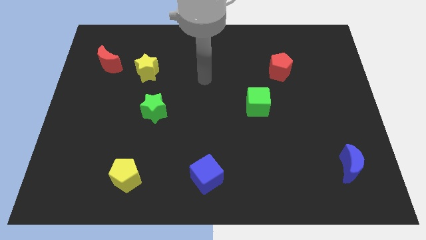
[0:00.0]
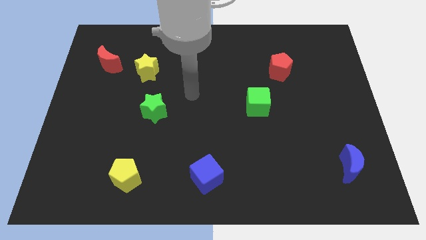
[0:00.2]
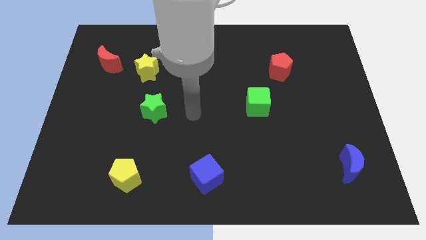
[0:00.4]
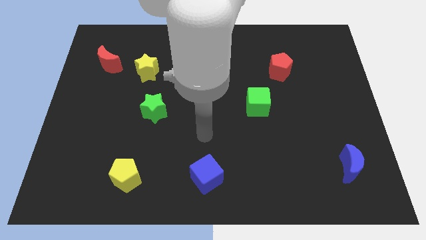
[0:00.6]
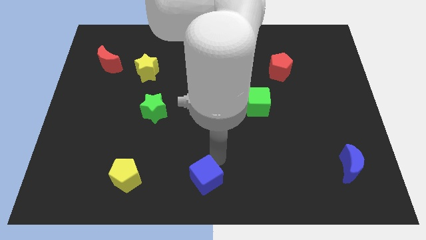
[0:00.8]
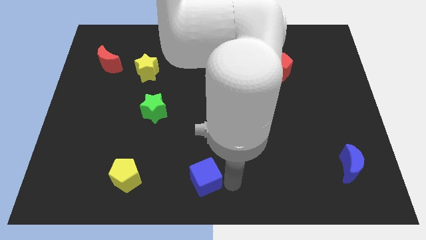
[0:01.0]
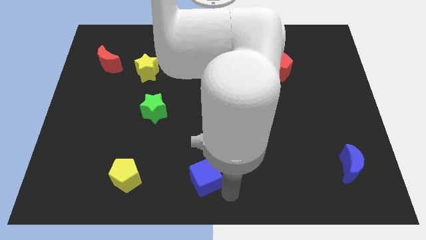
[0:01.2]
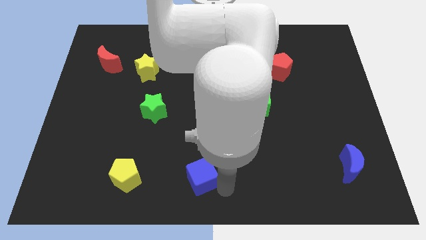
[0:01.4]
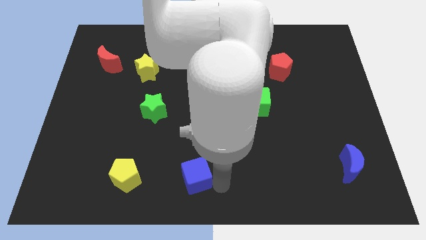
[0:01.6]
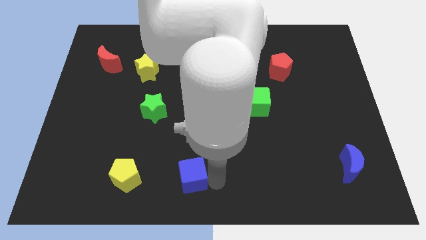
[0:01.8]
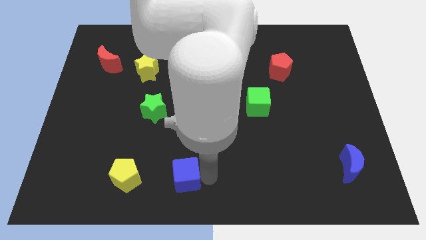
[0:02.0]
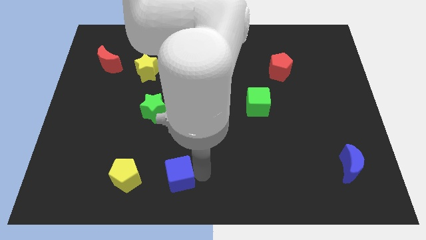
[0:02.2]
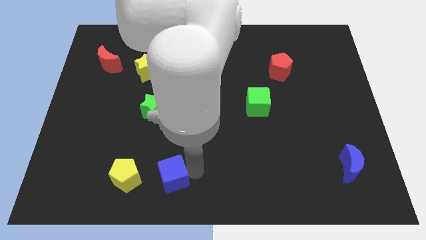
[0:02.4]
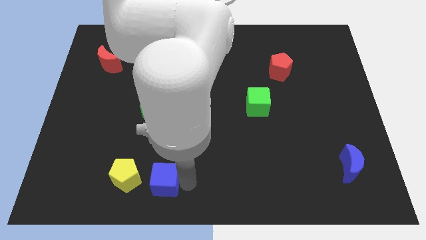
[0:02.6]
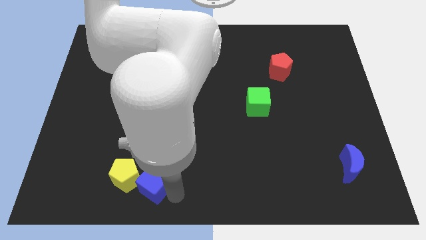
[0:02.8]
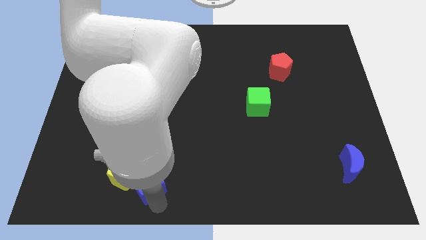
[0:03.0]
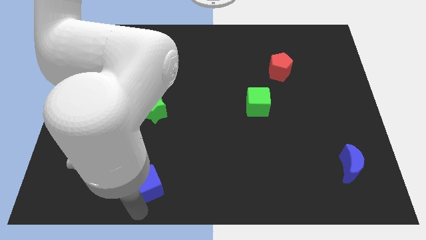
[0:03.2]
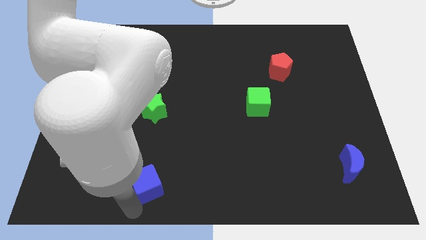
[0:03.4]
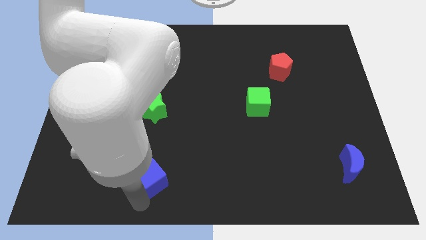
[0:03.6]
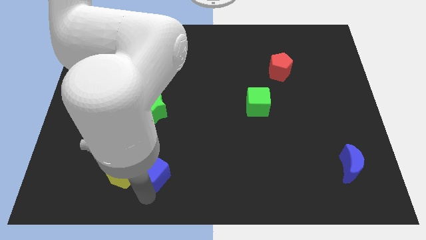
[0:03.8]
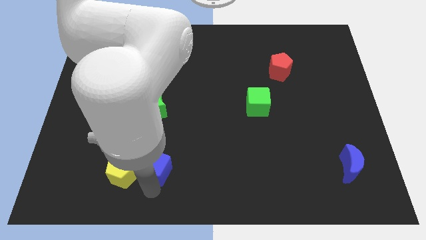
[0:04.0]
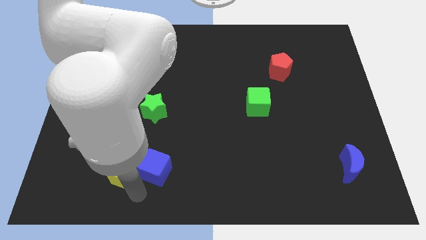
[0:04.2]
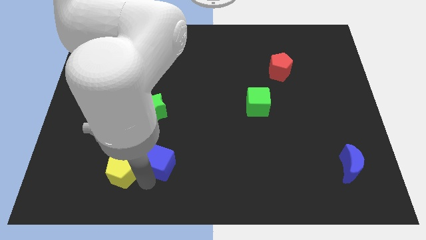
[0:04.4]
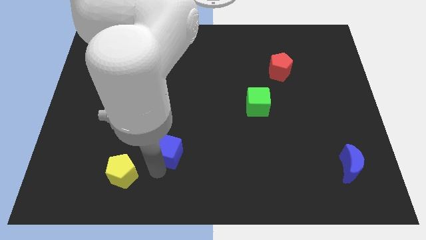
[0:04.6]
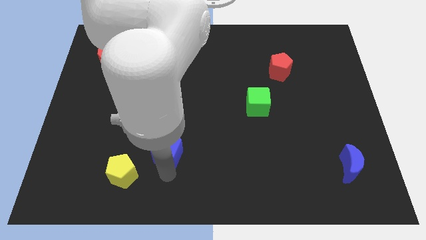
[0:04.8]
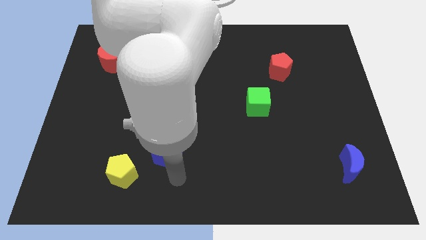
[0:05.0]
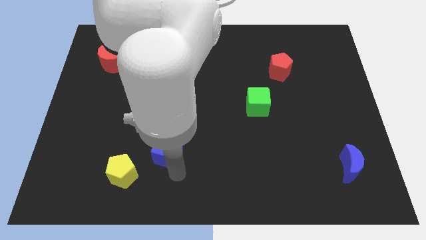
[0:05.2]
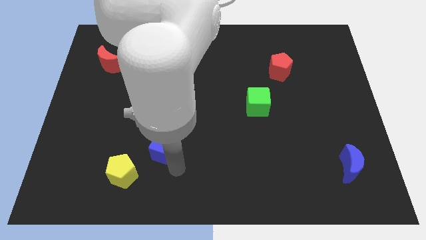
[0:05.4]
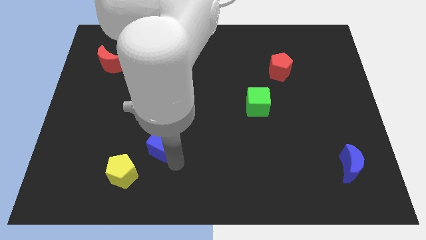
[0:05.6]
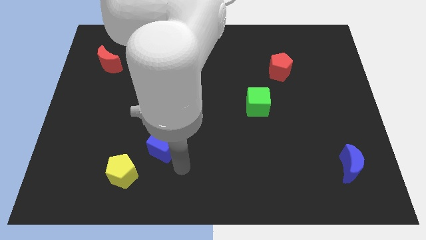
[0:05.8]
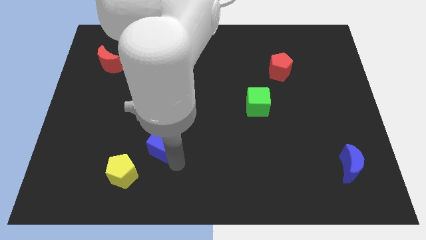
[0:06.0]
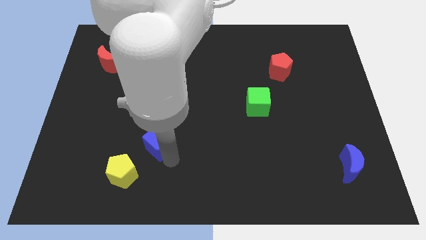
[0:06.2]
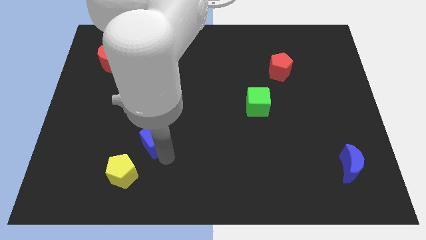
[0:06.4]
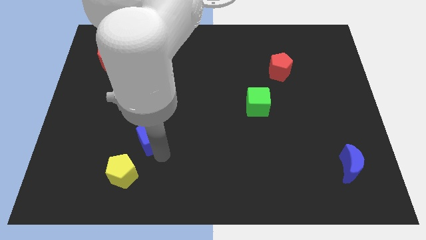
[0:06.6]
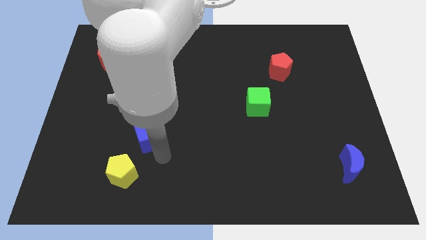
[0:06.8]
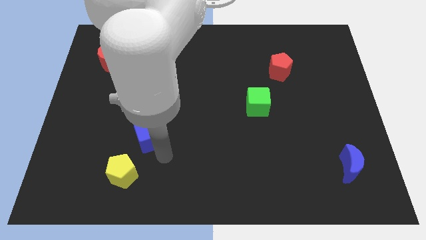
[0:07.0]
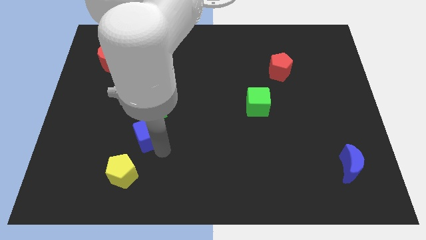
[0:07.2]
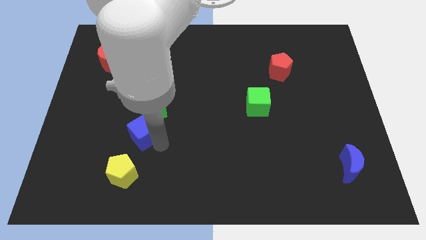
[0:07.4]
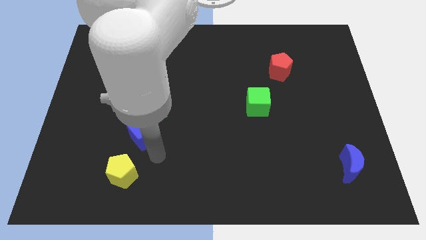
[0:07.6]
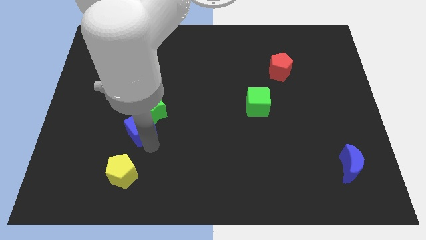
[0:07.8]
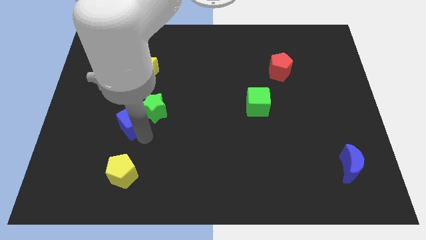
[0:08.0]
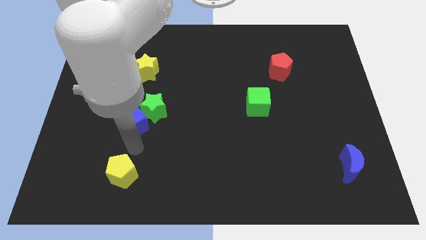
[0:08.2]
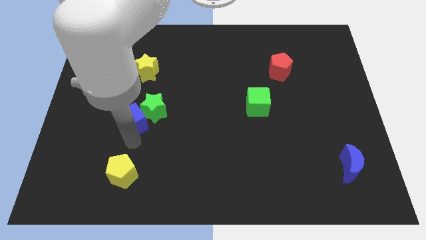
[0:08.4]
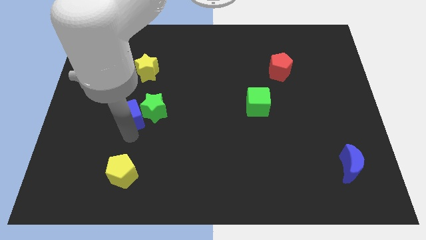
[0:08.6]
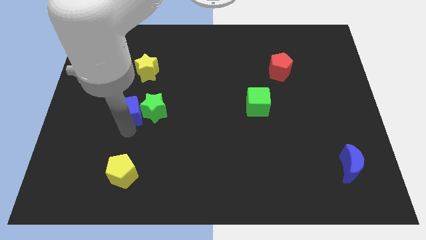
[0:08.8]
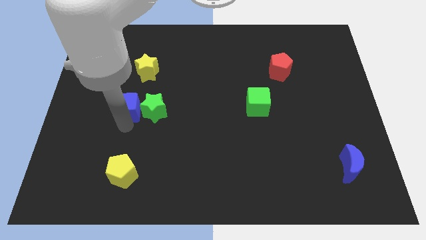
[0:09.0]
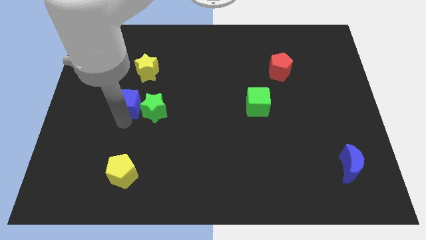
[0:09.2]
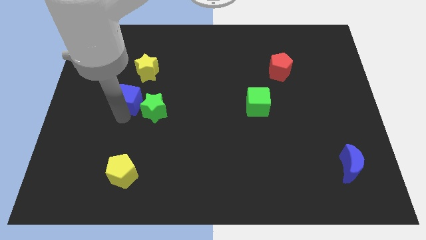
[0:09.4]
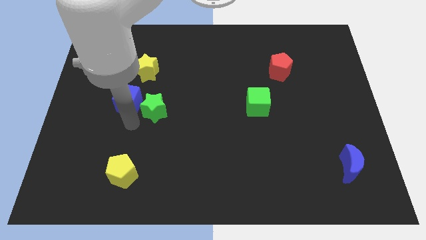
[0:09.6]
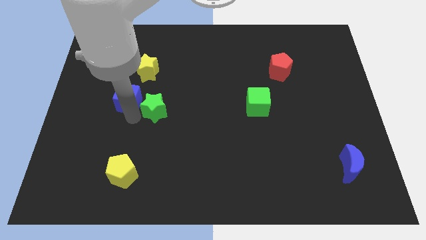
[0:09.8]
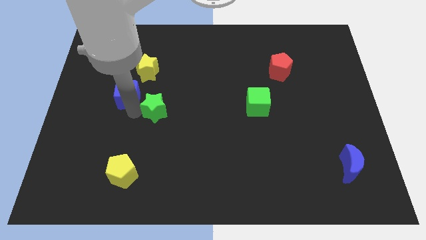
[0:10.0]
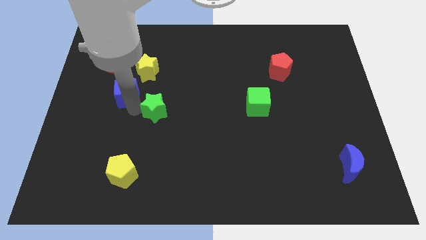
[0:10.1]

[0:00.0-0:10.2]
slide the blue cube diagonally down and to the right of the red moon

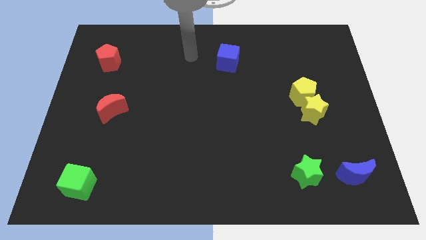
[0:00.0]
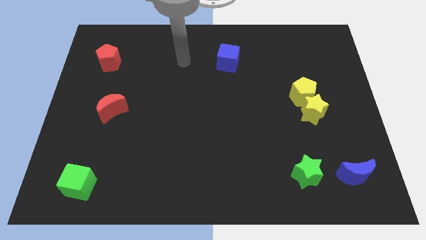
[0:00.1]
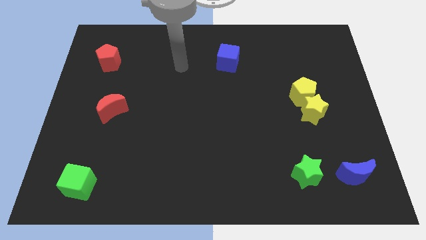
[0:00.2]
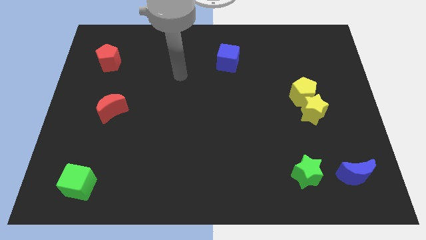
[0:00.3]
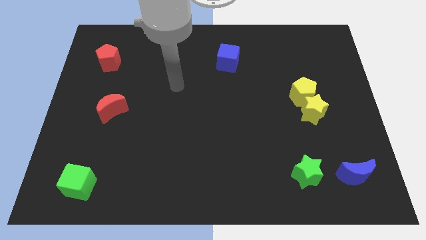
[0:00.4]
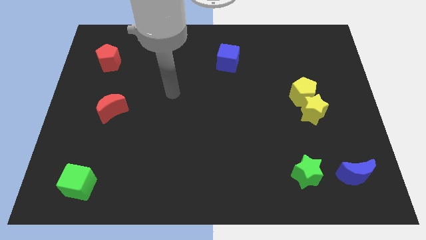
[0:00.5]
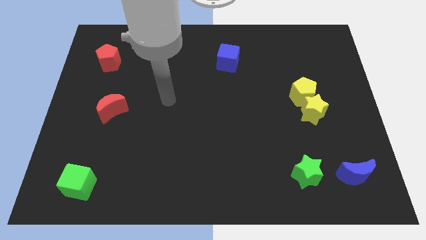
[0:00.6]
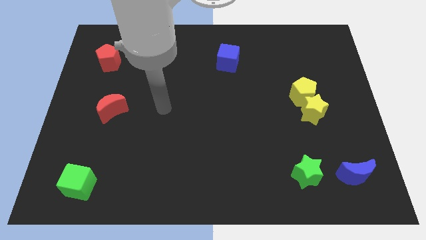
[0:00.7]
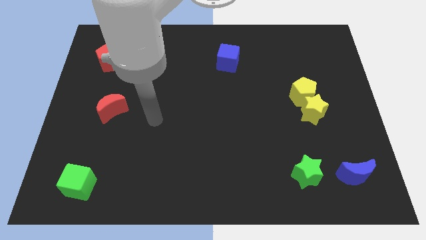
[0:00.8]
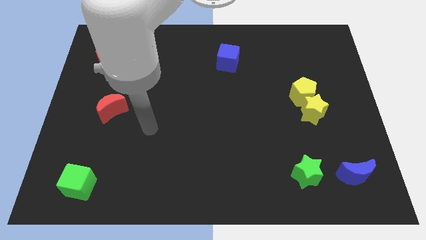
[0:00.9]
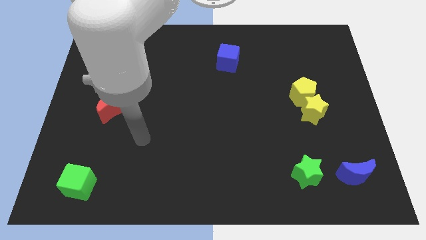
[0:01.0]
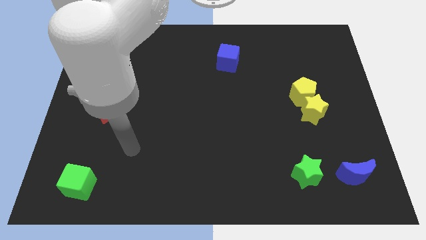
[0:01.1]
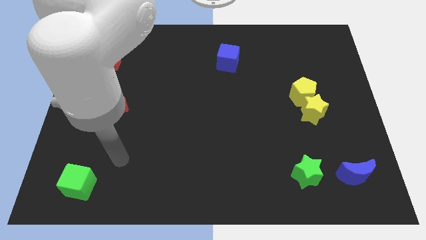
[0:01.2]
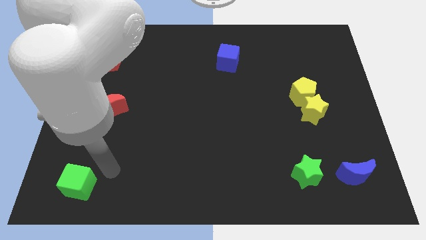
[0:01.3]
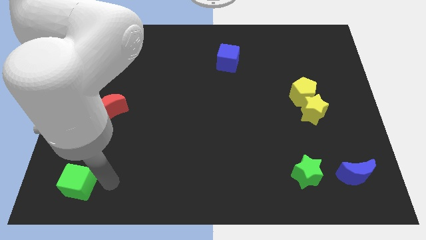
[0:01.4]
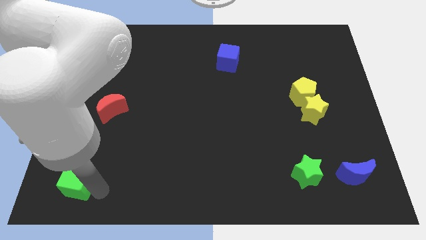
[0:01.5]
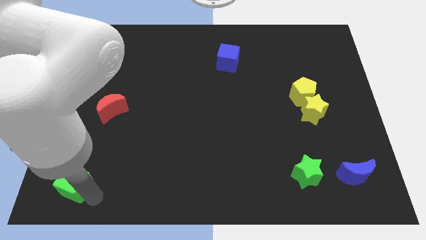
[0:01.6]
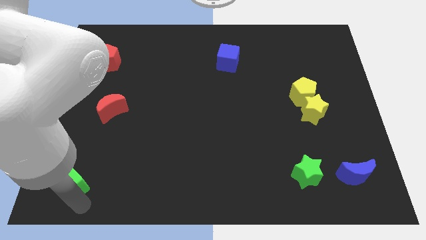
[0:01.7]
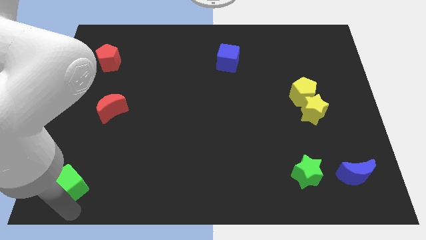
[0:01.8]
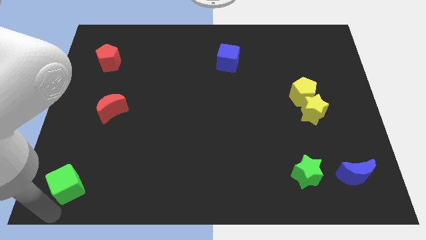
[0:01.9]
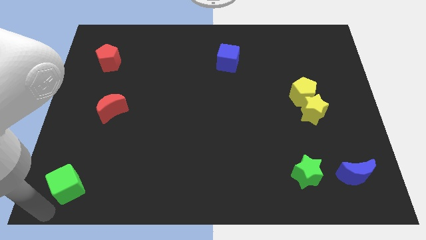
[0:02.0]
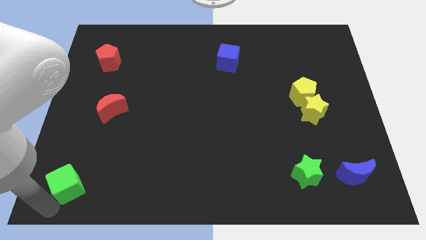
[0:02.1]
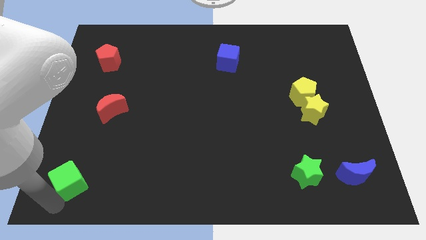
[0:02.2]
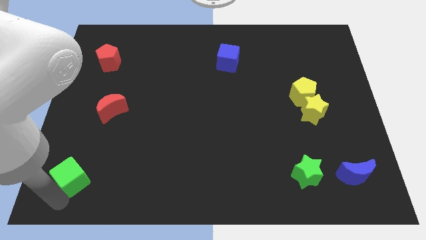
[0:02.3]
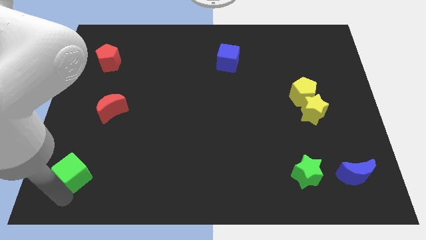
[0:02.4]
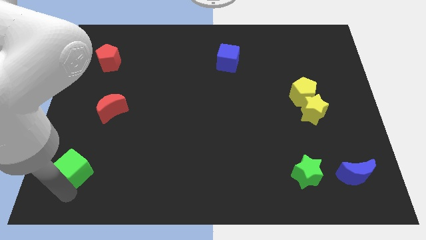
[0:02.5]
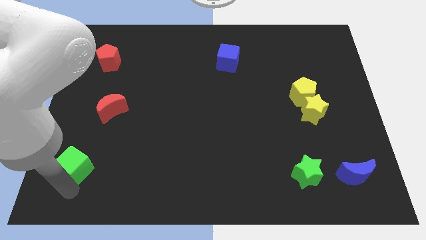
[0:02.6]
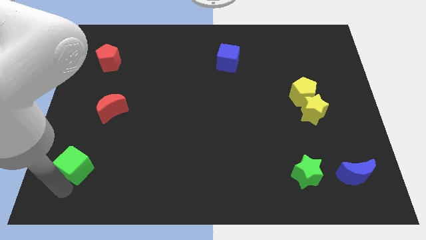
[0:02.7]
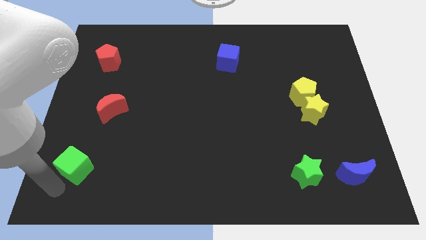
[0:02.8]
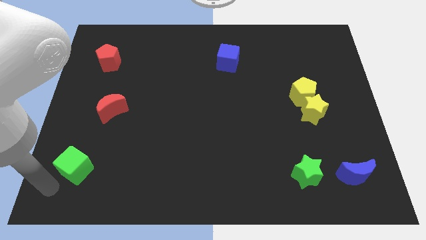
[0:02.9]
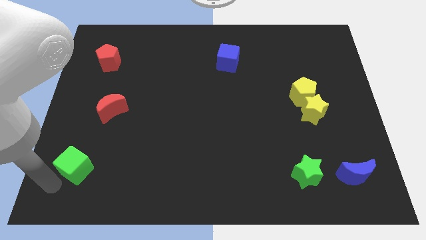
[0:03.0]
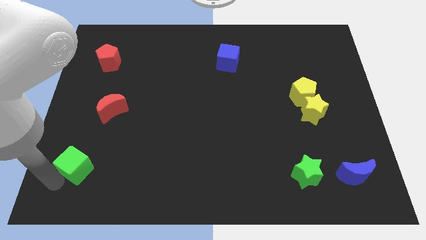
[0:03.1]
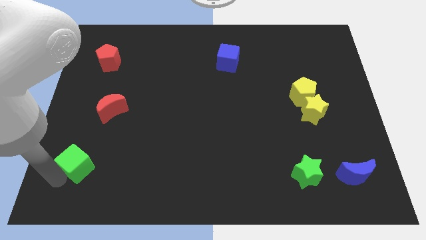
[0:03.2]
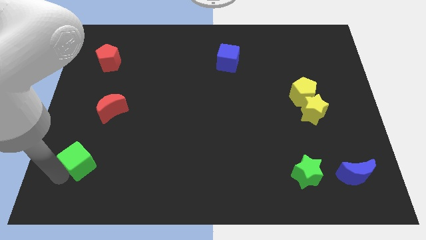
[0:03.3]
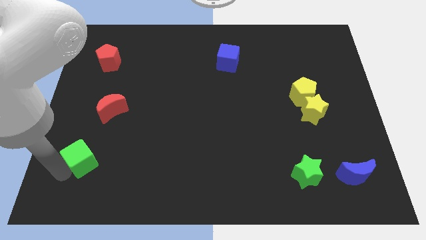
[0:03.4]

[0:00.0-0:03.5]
move the green cube to the bottom of the red moon
